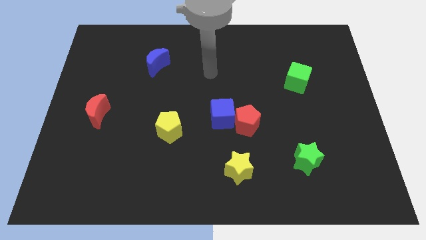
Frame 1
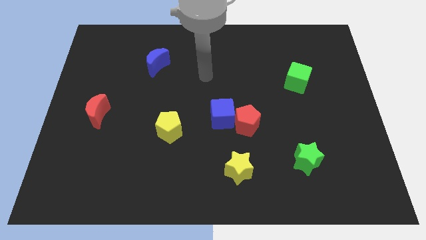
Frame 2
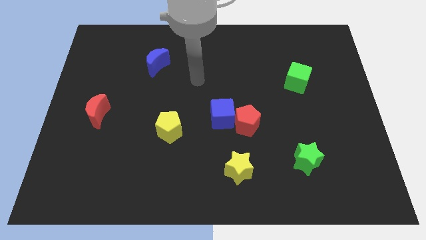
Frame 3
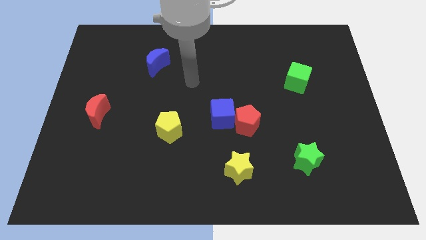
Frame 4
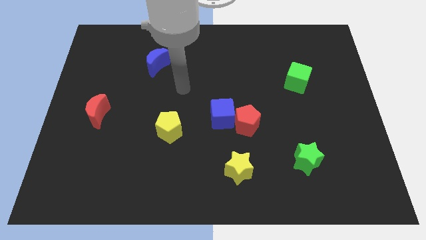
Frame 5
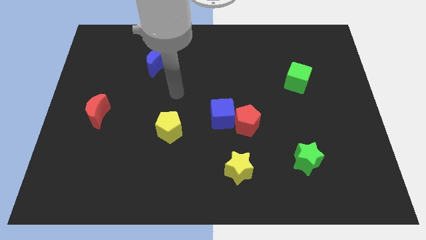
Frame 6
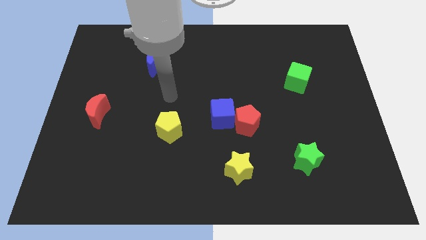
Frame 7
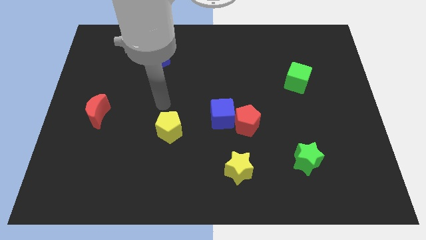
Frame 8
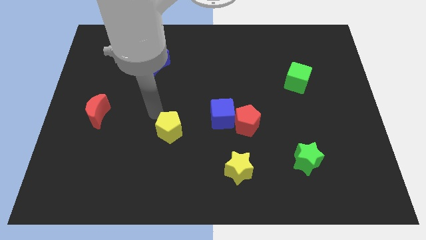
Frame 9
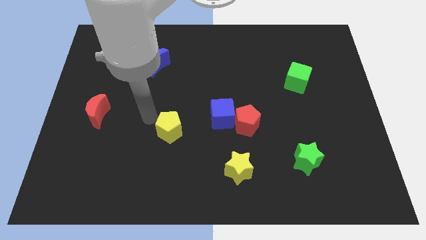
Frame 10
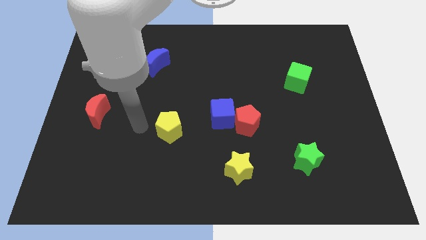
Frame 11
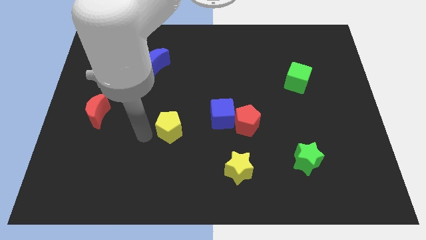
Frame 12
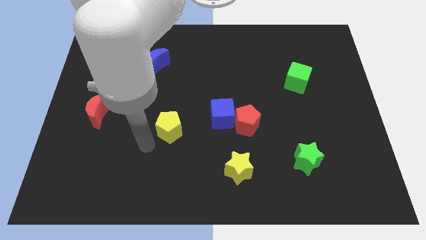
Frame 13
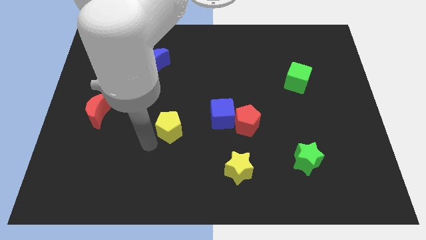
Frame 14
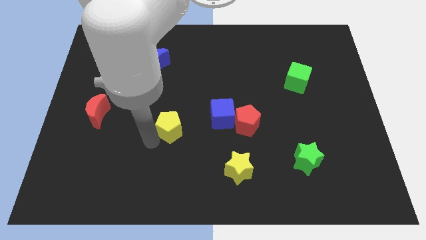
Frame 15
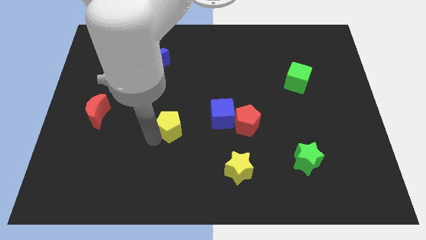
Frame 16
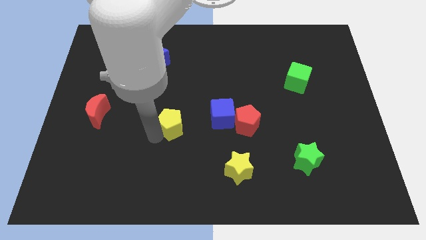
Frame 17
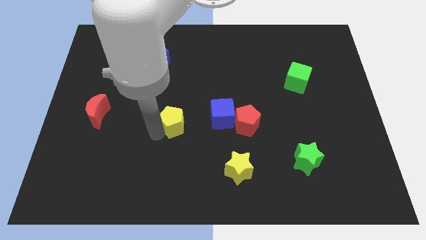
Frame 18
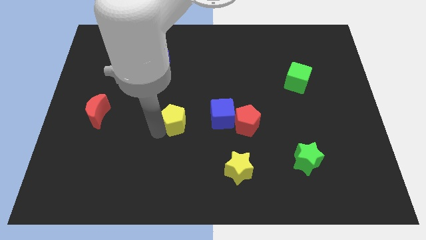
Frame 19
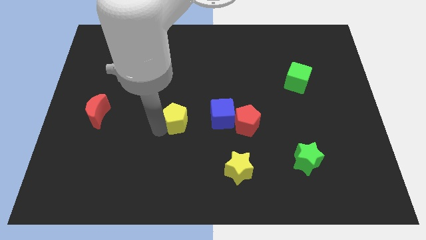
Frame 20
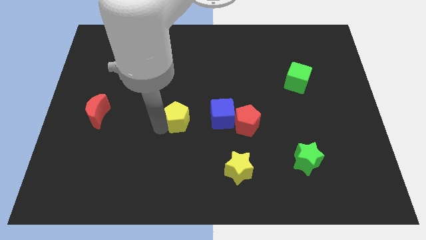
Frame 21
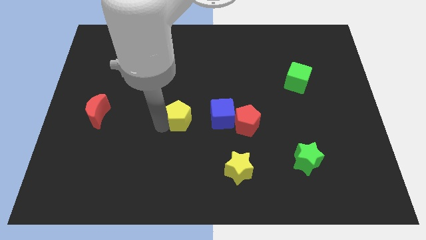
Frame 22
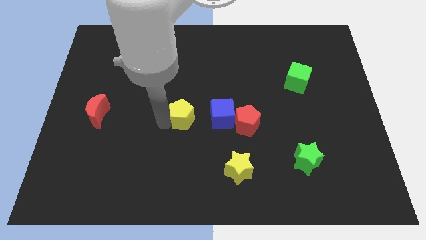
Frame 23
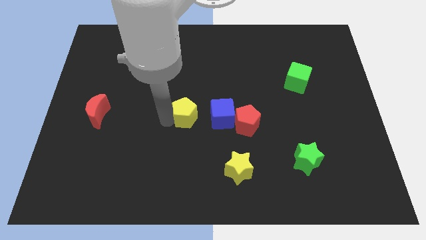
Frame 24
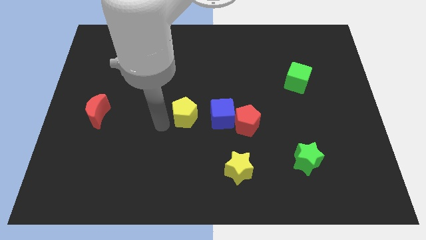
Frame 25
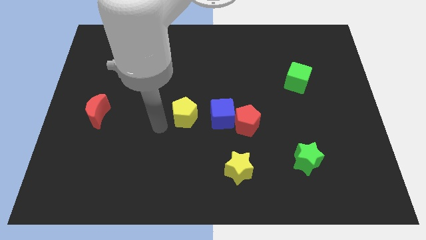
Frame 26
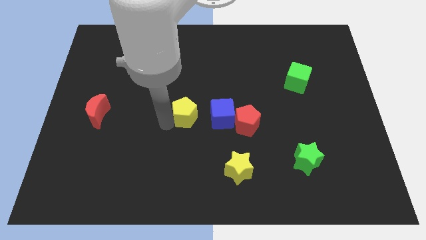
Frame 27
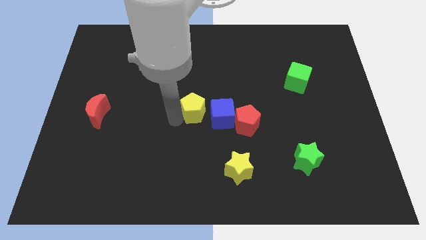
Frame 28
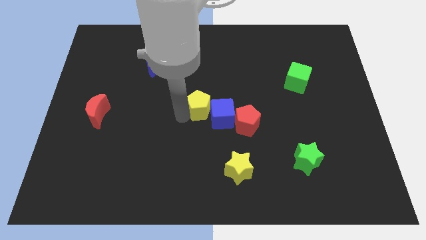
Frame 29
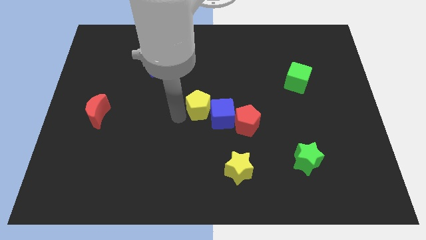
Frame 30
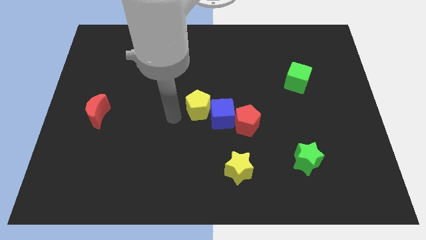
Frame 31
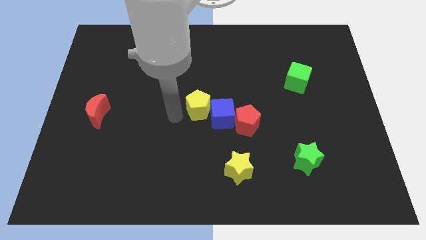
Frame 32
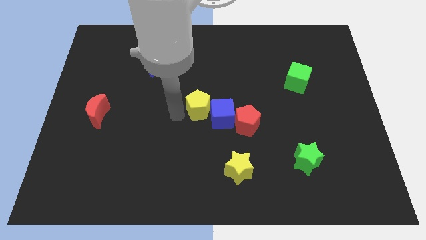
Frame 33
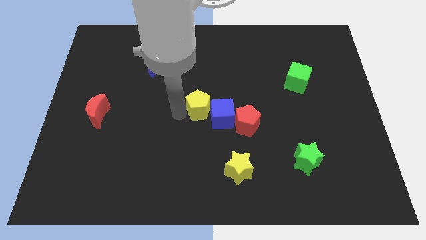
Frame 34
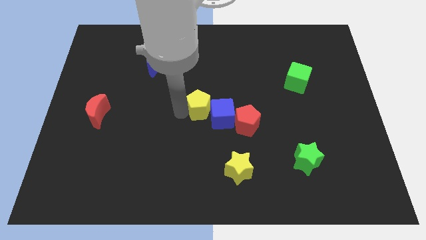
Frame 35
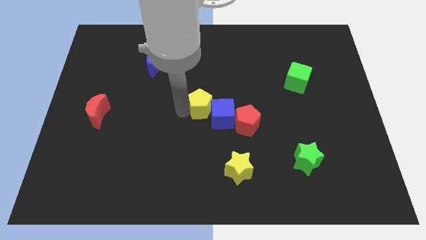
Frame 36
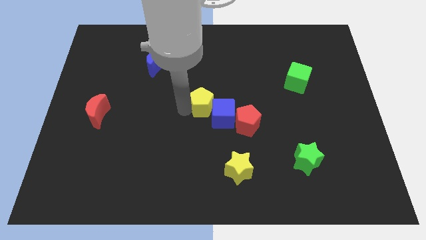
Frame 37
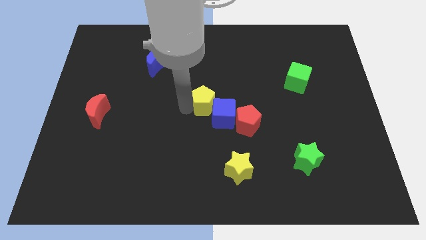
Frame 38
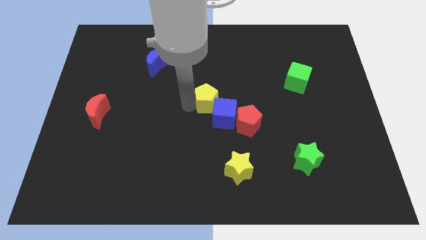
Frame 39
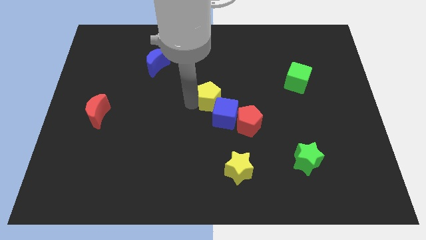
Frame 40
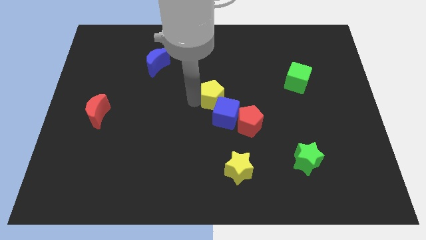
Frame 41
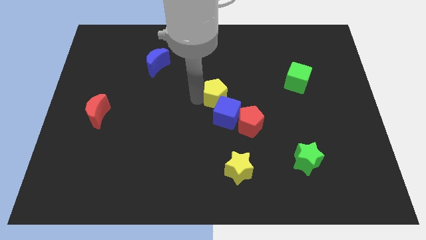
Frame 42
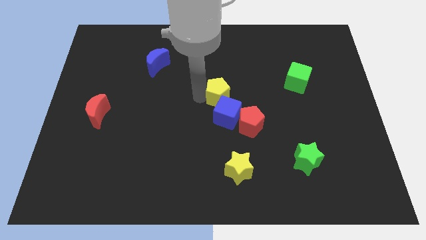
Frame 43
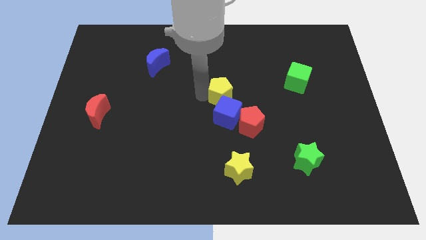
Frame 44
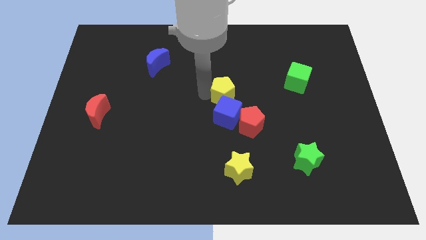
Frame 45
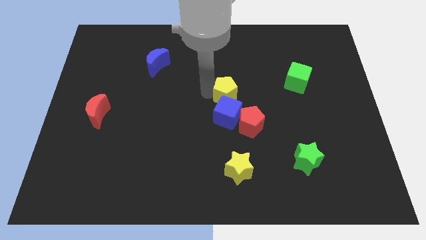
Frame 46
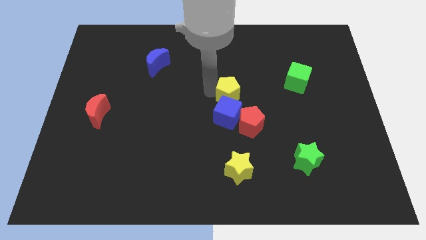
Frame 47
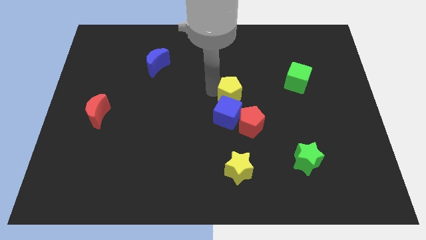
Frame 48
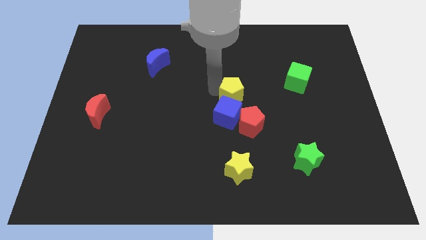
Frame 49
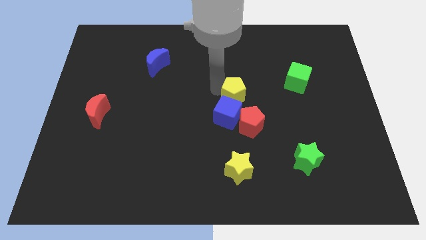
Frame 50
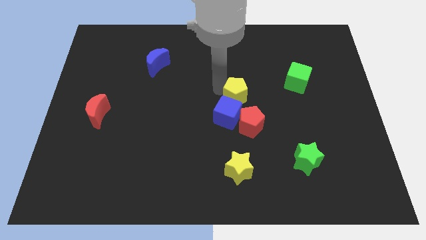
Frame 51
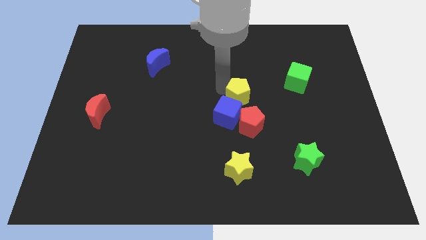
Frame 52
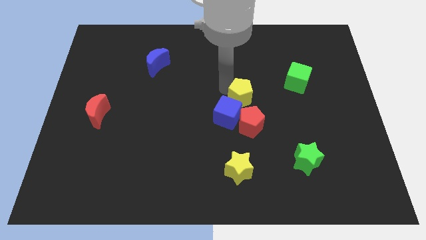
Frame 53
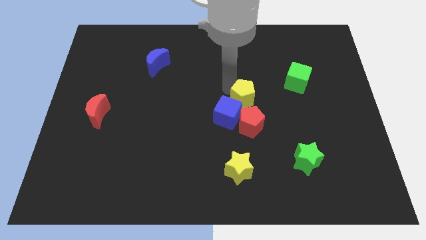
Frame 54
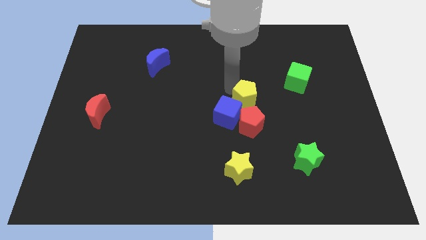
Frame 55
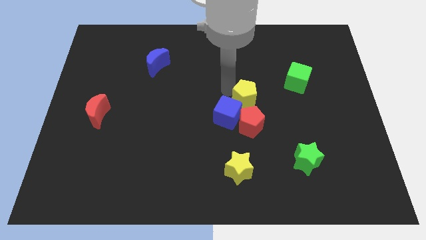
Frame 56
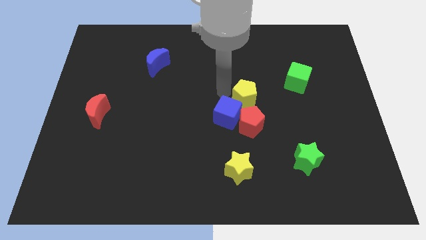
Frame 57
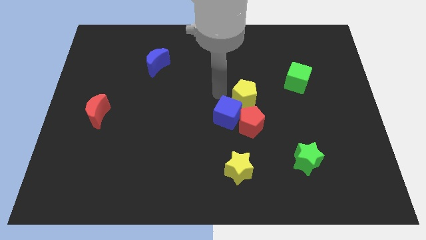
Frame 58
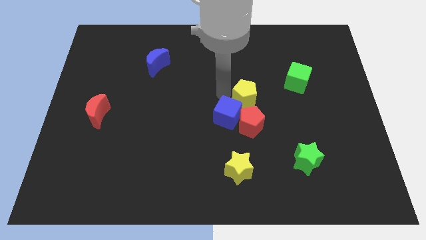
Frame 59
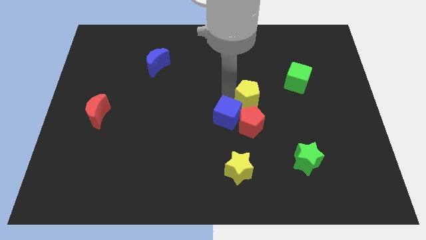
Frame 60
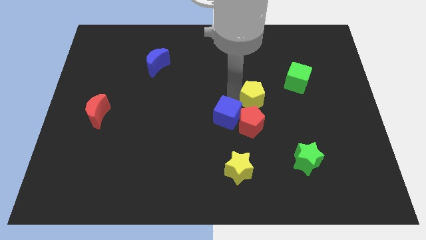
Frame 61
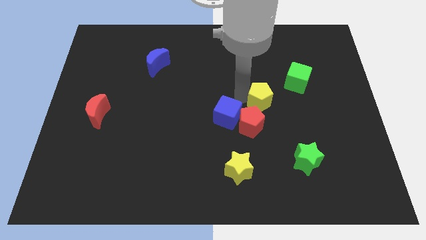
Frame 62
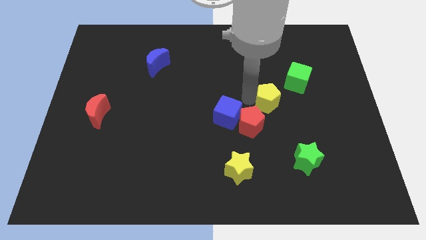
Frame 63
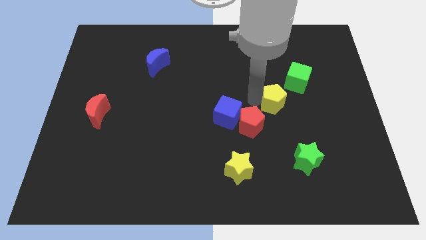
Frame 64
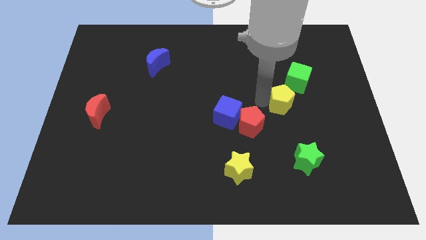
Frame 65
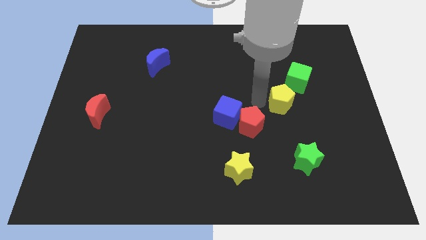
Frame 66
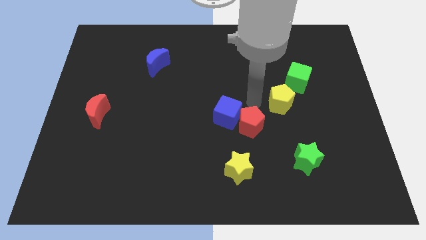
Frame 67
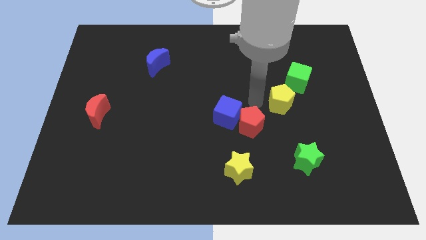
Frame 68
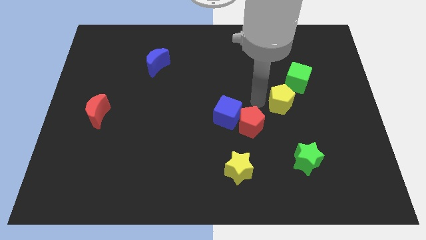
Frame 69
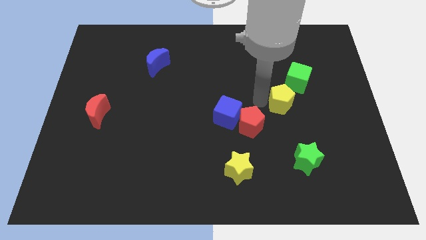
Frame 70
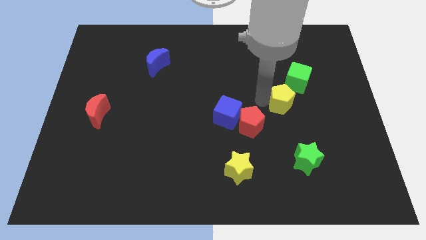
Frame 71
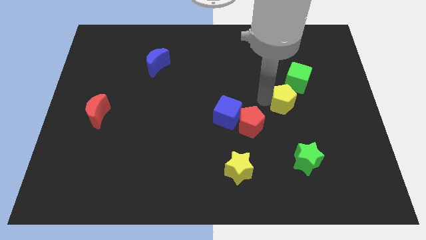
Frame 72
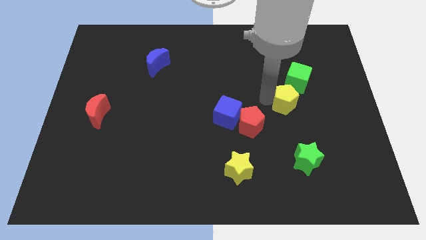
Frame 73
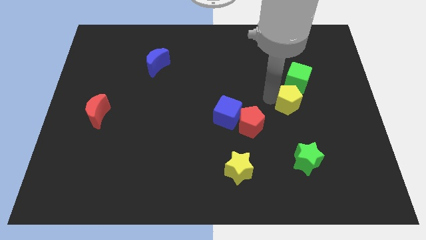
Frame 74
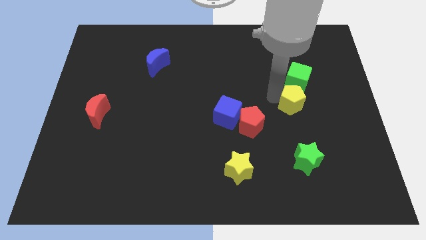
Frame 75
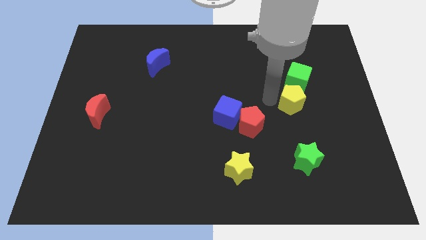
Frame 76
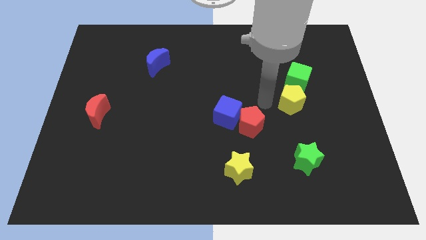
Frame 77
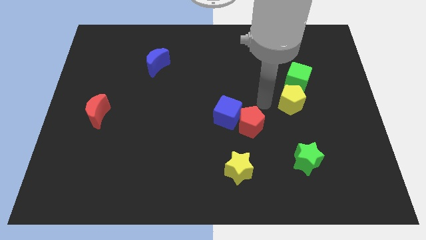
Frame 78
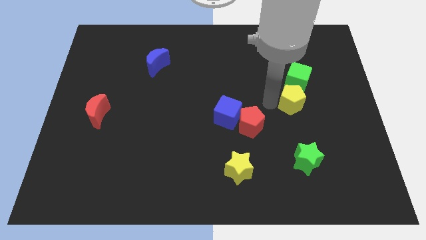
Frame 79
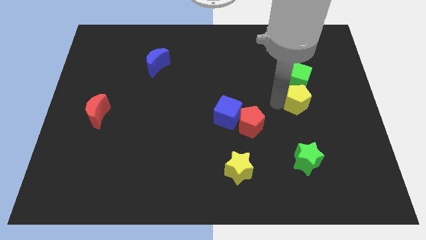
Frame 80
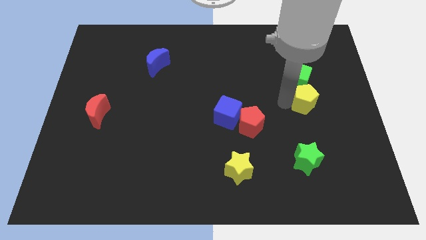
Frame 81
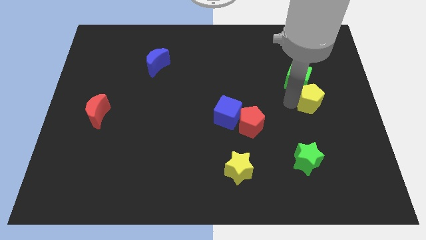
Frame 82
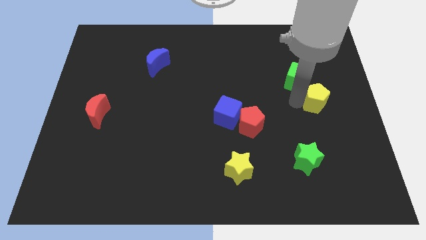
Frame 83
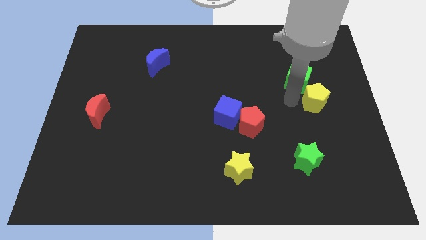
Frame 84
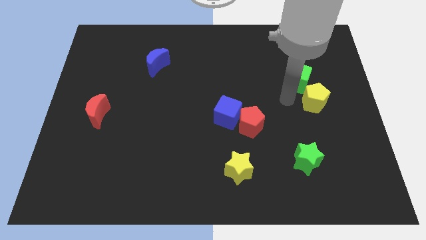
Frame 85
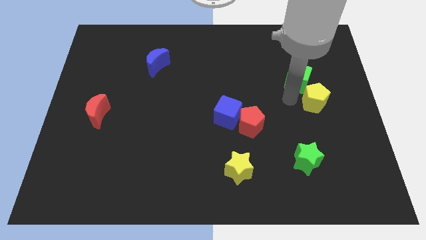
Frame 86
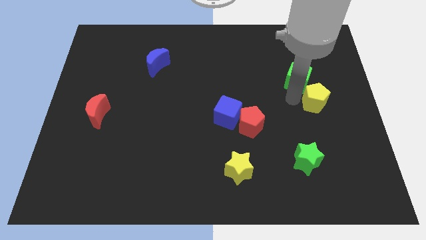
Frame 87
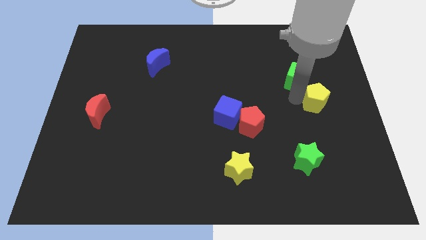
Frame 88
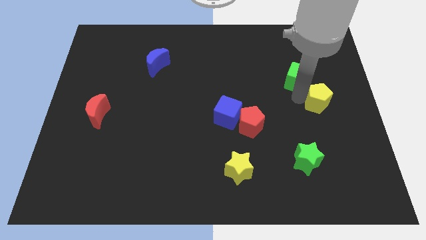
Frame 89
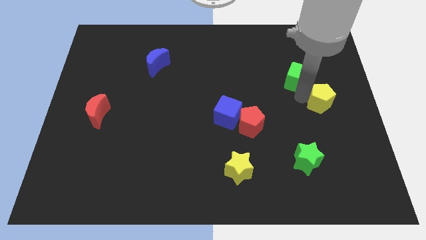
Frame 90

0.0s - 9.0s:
put the yellow pentagon to the right side of the board
